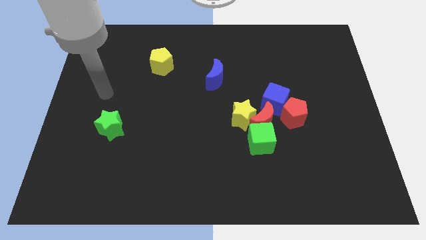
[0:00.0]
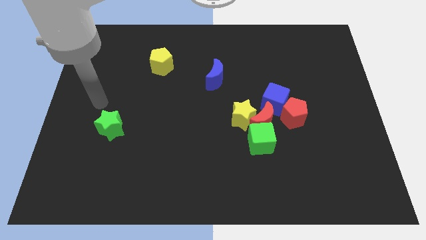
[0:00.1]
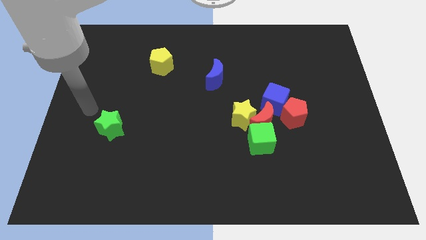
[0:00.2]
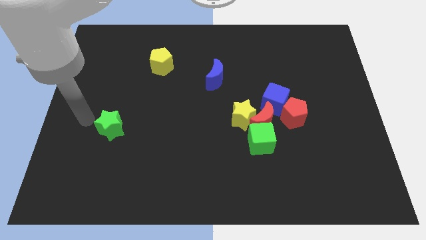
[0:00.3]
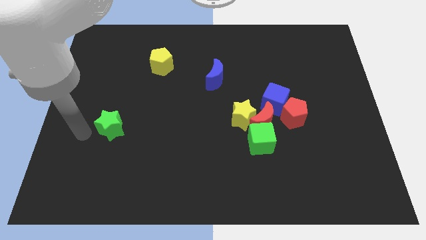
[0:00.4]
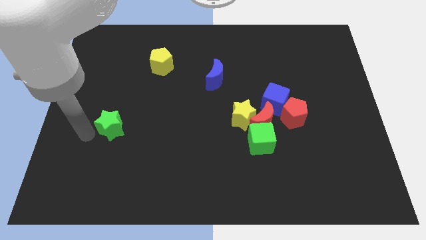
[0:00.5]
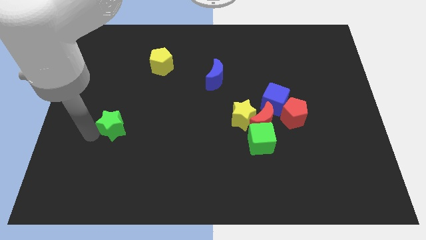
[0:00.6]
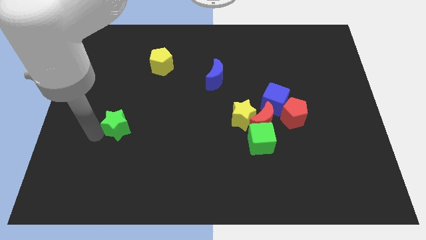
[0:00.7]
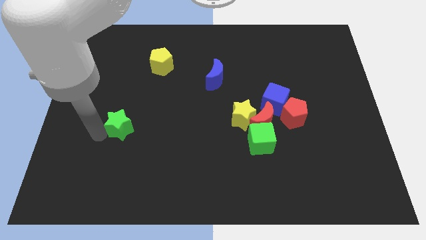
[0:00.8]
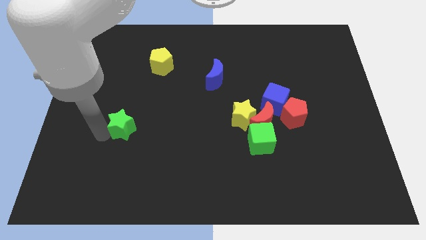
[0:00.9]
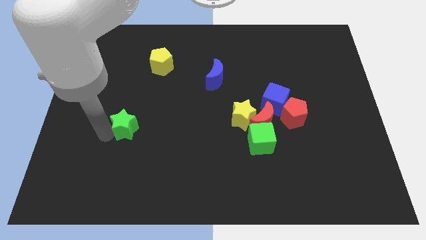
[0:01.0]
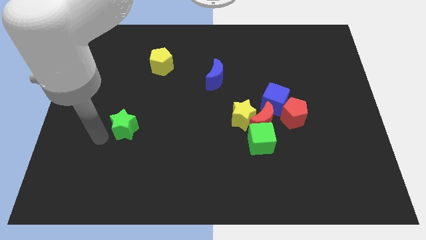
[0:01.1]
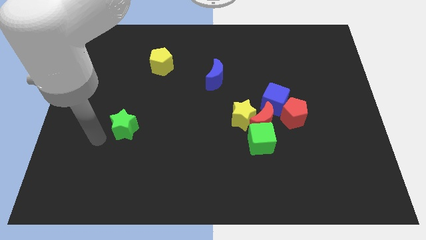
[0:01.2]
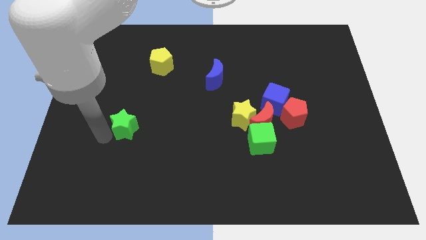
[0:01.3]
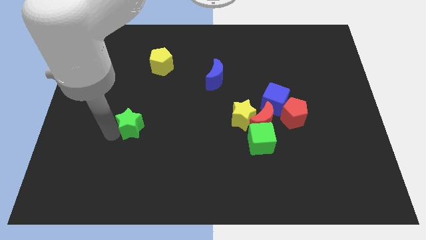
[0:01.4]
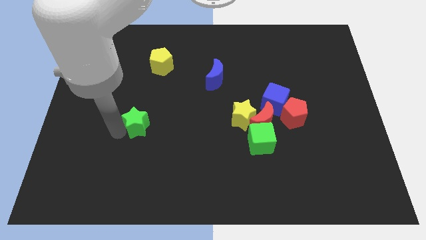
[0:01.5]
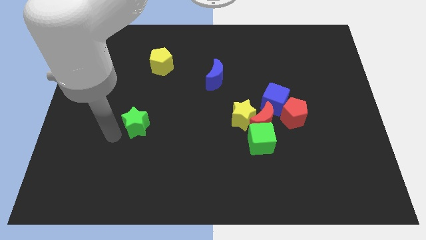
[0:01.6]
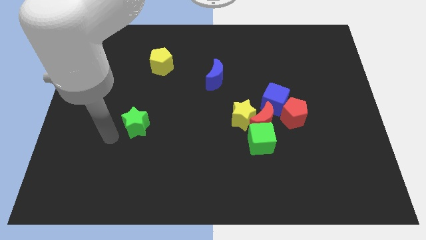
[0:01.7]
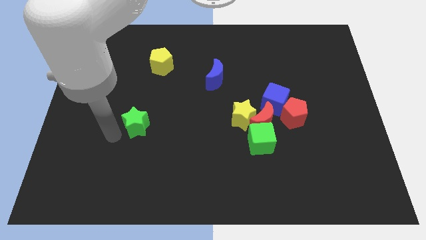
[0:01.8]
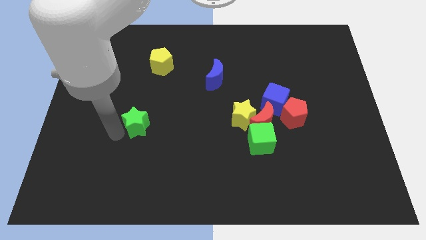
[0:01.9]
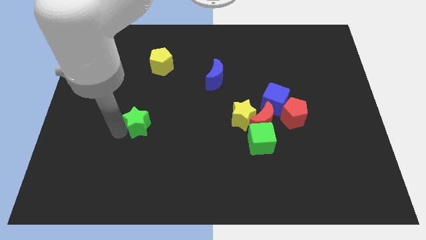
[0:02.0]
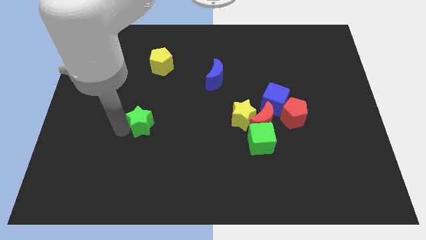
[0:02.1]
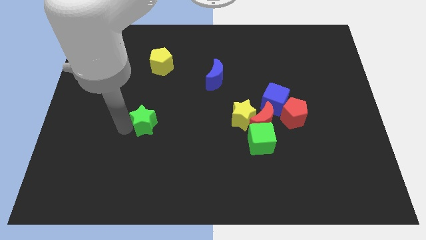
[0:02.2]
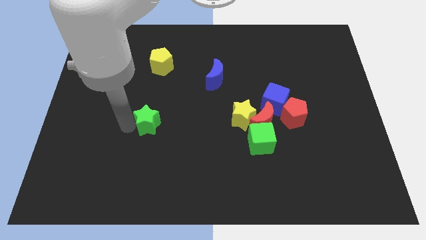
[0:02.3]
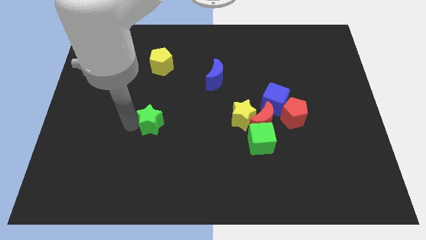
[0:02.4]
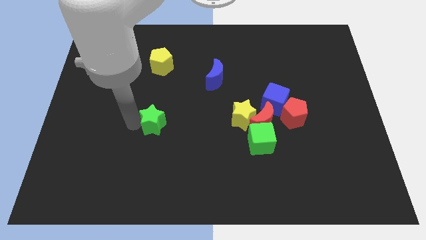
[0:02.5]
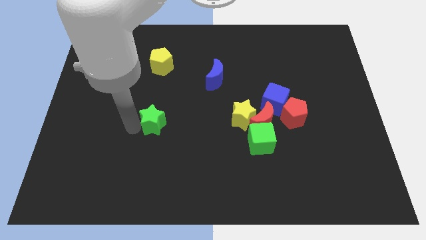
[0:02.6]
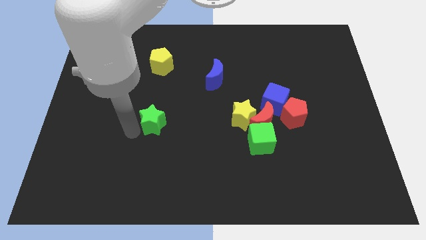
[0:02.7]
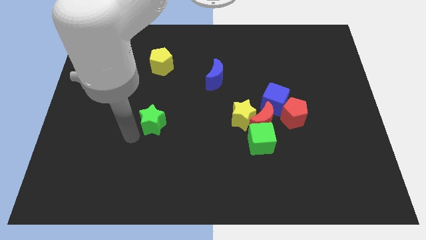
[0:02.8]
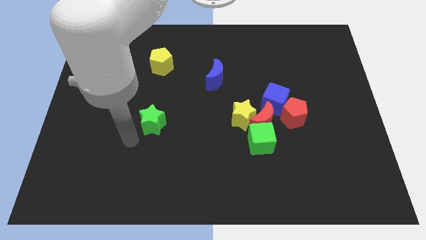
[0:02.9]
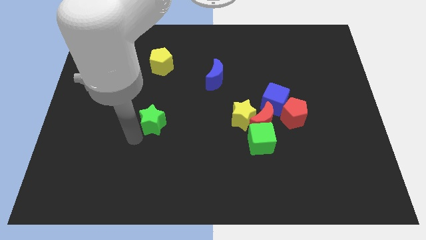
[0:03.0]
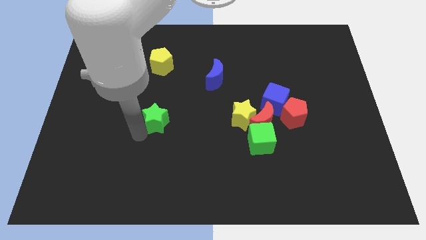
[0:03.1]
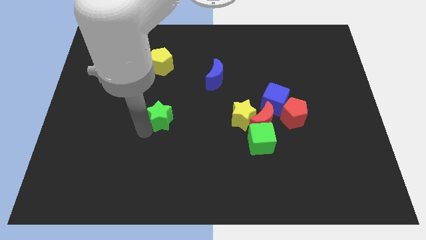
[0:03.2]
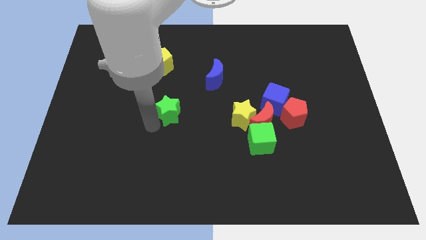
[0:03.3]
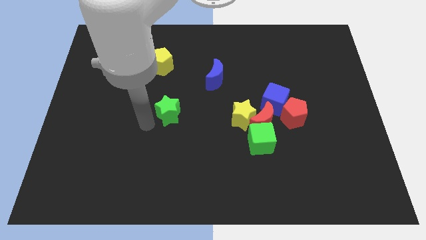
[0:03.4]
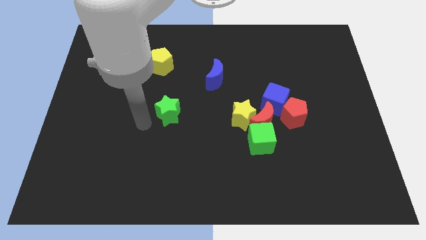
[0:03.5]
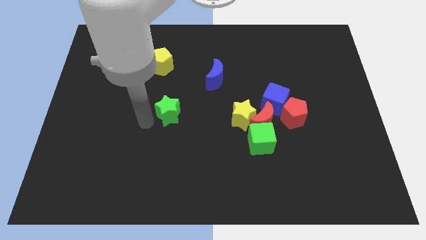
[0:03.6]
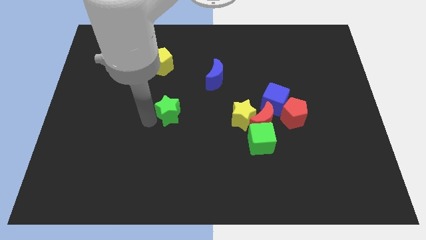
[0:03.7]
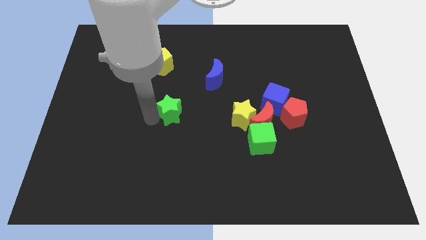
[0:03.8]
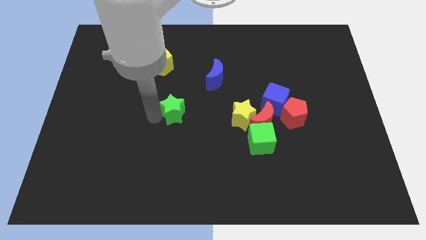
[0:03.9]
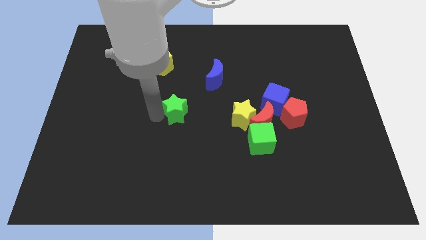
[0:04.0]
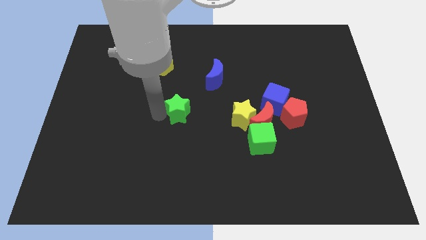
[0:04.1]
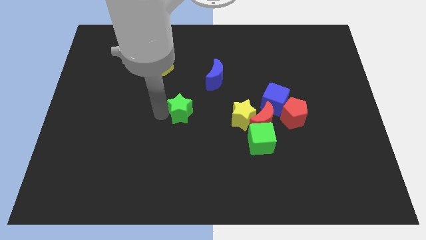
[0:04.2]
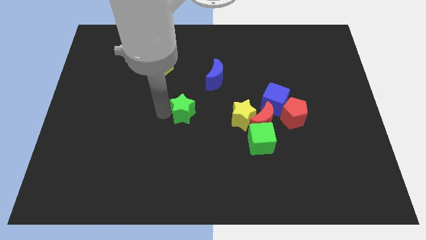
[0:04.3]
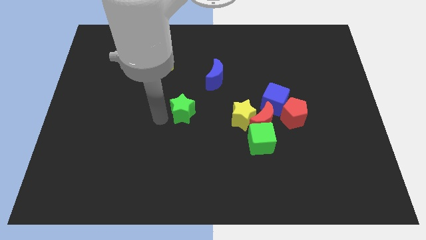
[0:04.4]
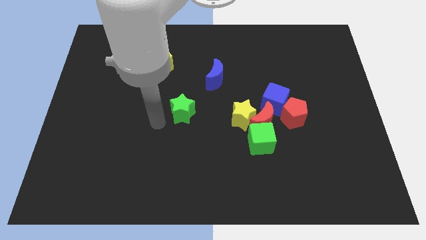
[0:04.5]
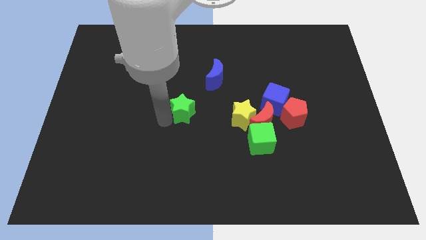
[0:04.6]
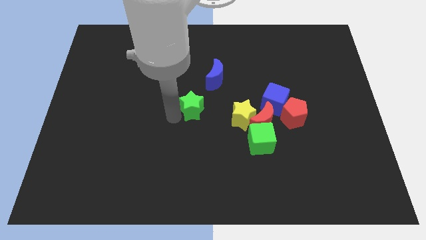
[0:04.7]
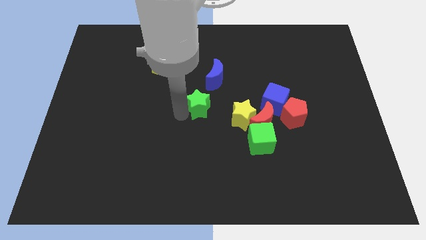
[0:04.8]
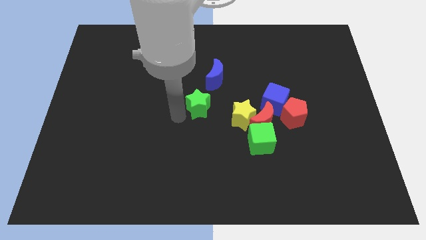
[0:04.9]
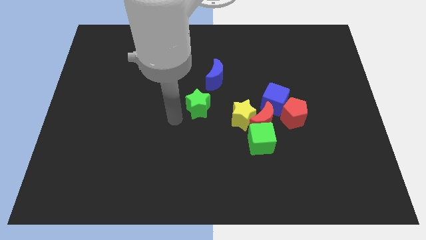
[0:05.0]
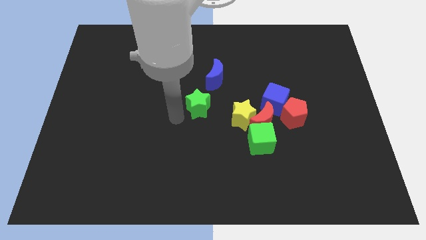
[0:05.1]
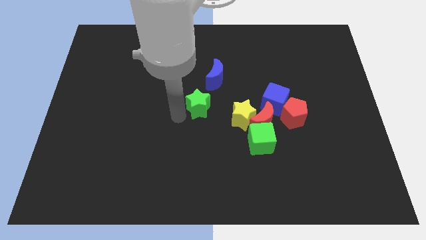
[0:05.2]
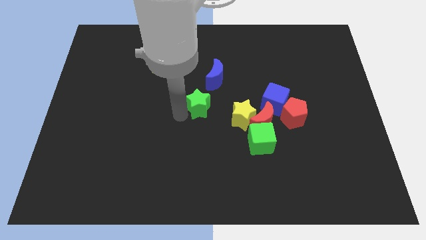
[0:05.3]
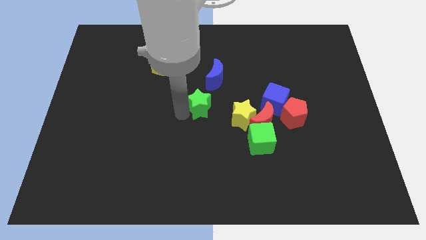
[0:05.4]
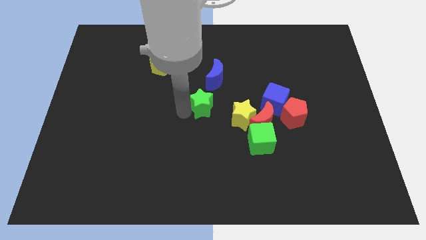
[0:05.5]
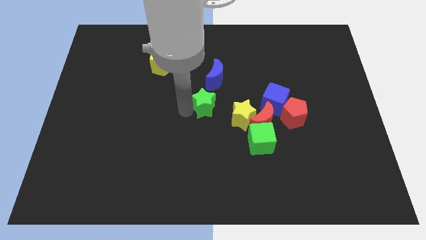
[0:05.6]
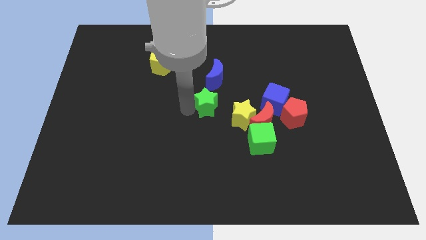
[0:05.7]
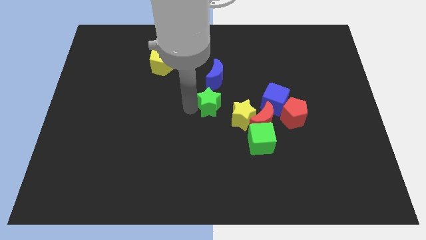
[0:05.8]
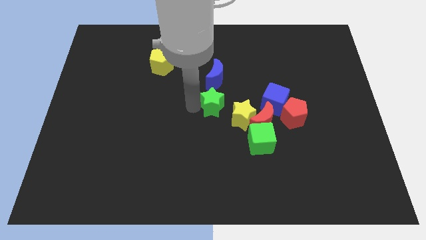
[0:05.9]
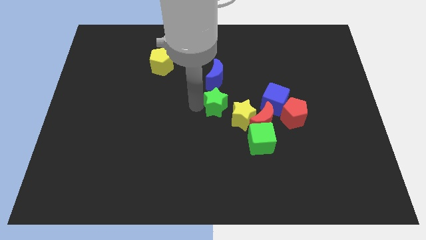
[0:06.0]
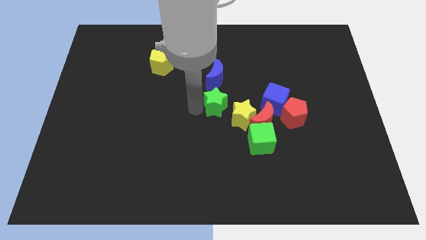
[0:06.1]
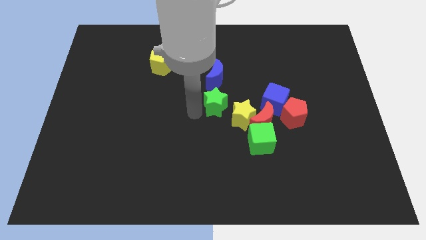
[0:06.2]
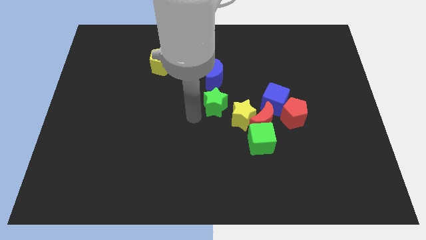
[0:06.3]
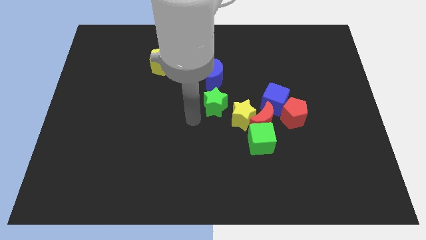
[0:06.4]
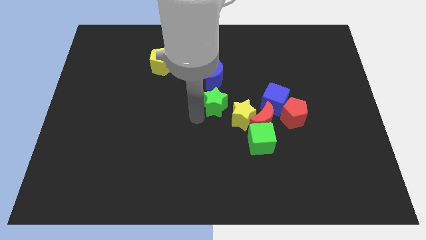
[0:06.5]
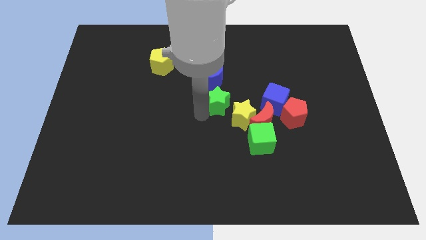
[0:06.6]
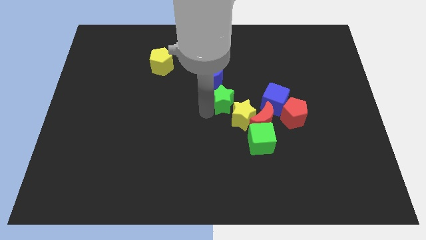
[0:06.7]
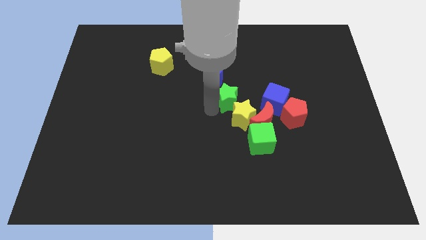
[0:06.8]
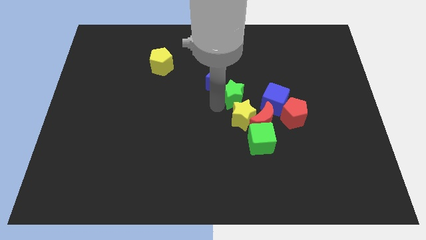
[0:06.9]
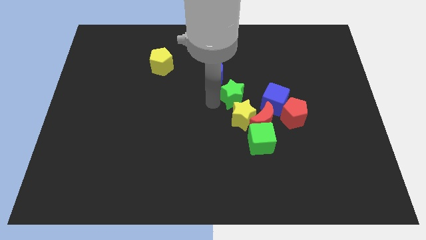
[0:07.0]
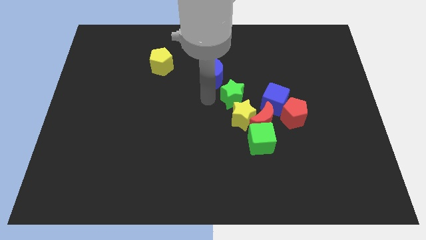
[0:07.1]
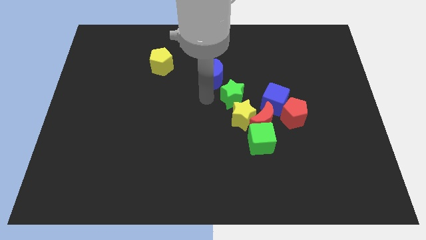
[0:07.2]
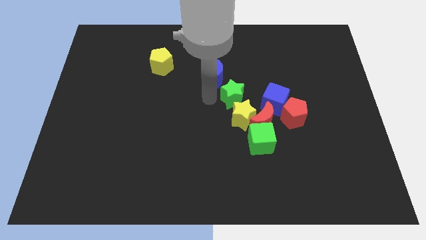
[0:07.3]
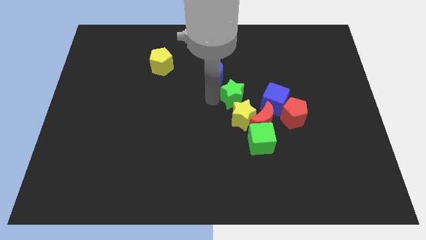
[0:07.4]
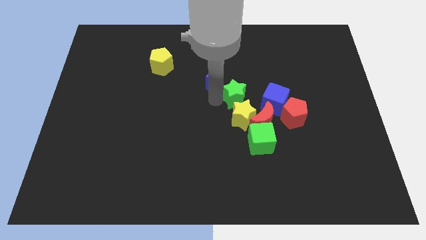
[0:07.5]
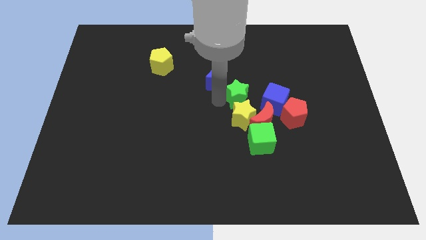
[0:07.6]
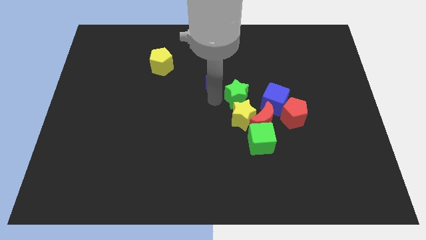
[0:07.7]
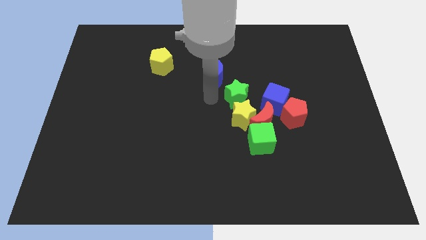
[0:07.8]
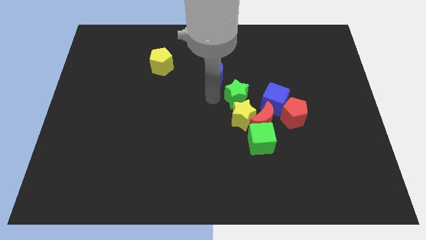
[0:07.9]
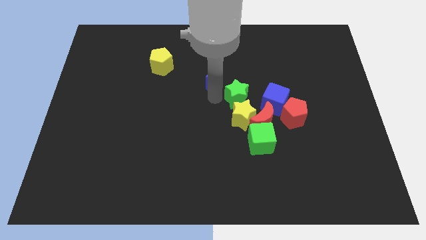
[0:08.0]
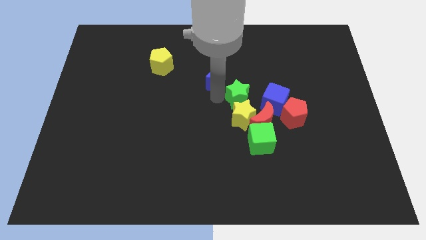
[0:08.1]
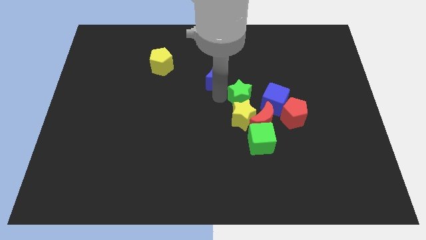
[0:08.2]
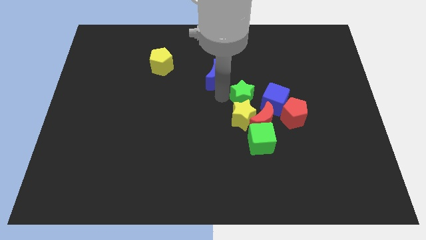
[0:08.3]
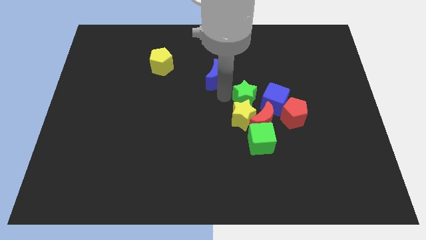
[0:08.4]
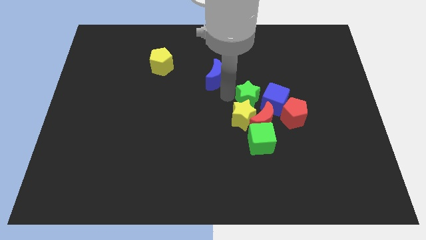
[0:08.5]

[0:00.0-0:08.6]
push the green star towards the blue cube
